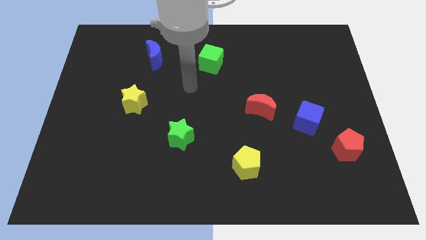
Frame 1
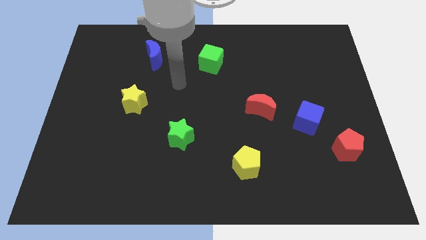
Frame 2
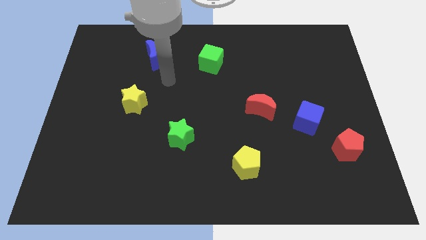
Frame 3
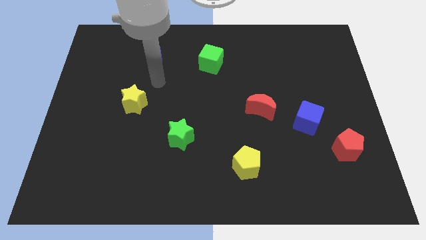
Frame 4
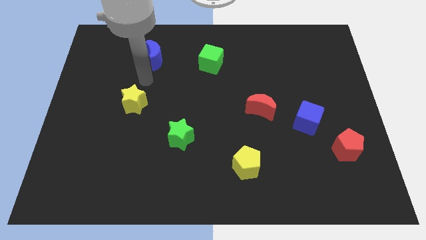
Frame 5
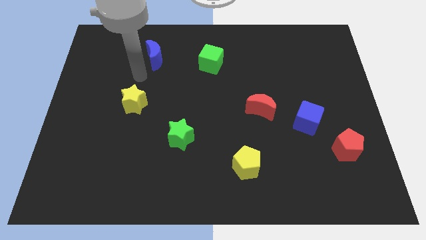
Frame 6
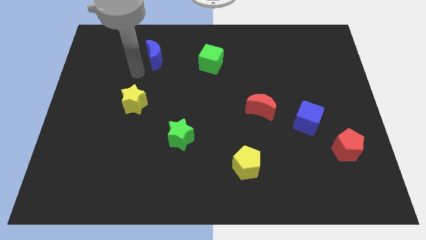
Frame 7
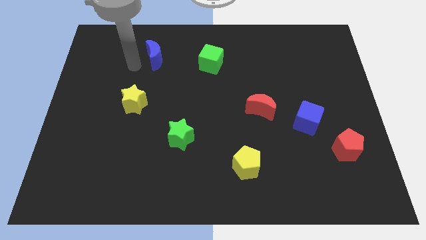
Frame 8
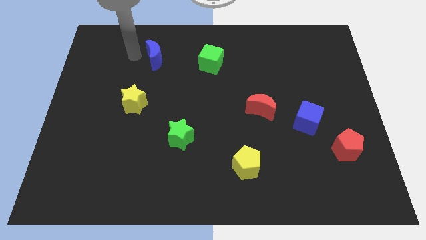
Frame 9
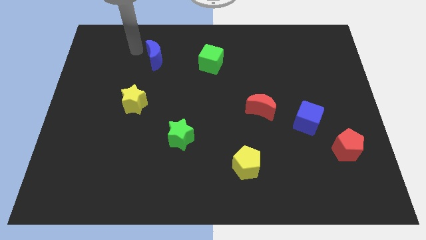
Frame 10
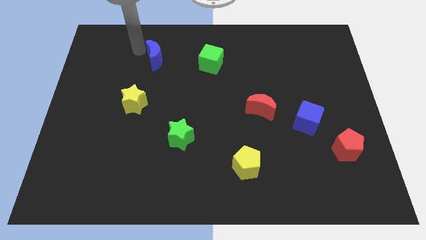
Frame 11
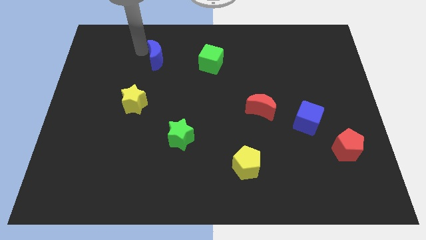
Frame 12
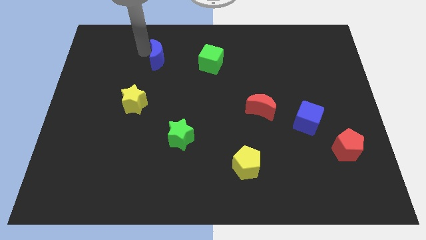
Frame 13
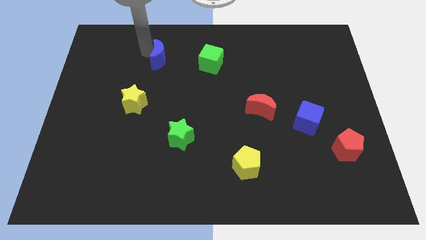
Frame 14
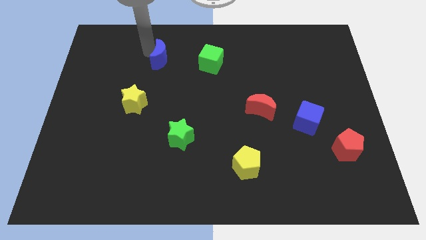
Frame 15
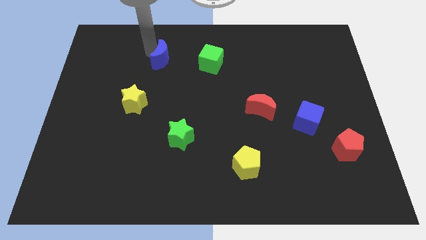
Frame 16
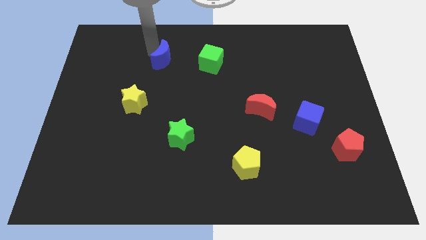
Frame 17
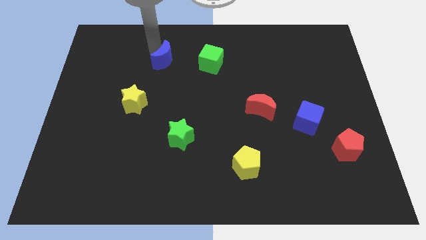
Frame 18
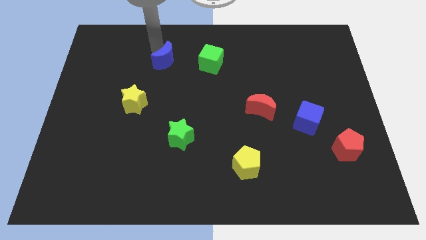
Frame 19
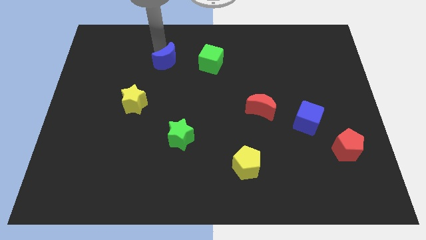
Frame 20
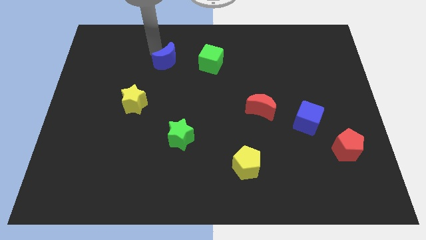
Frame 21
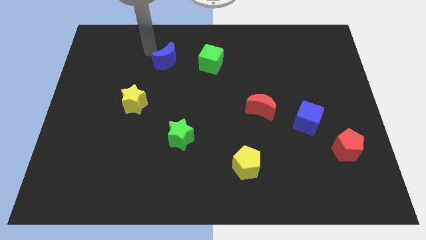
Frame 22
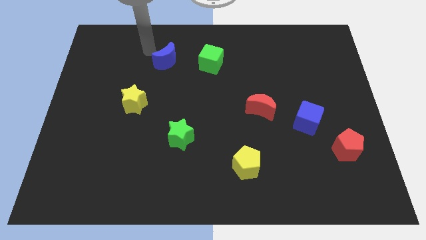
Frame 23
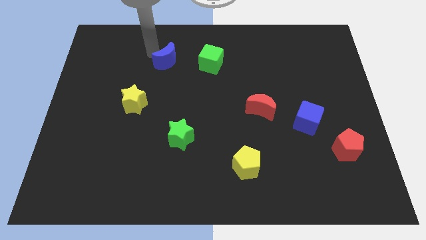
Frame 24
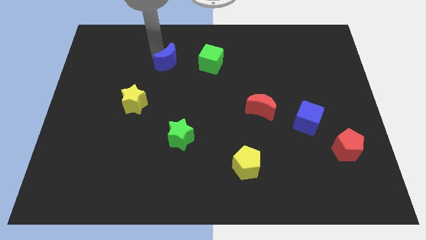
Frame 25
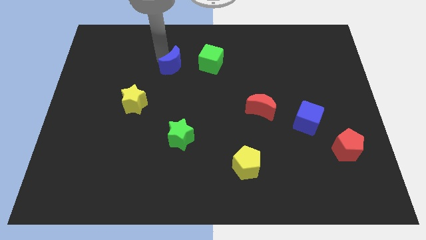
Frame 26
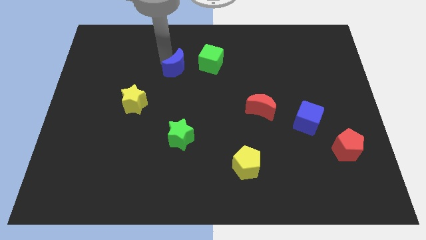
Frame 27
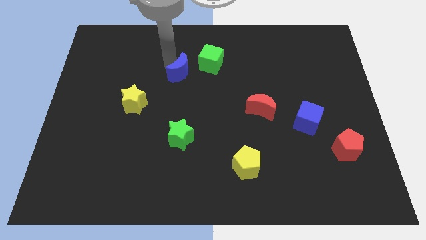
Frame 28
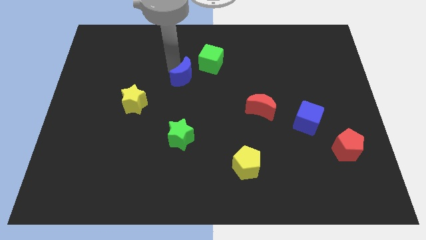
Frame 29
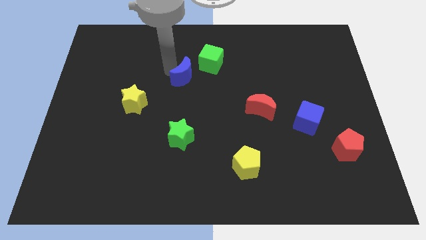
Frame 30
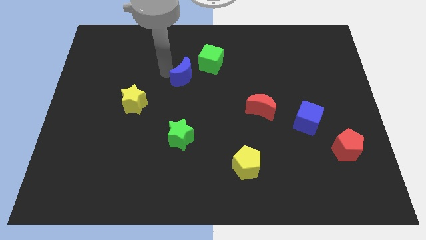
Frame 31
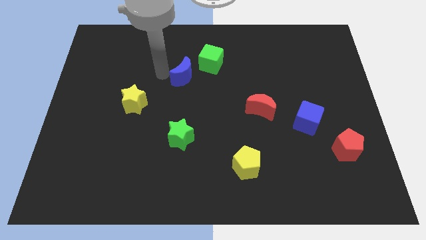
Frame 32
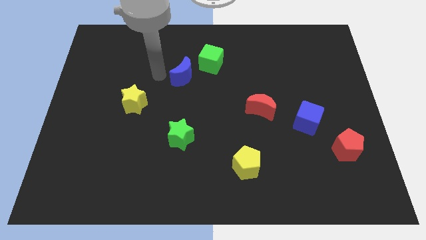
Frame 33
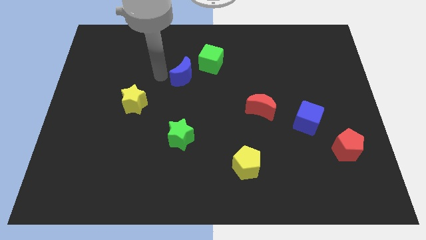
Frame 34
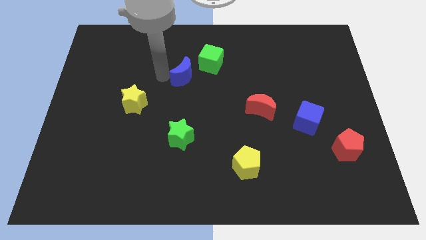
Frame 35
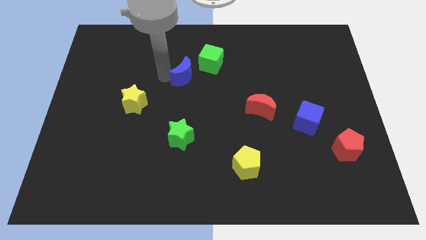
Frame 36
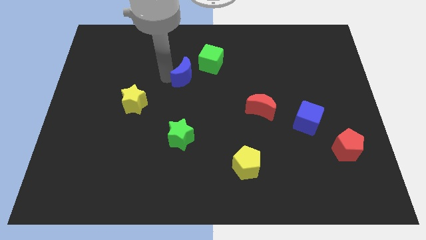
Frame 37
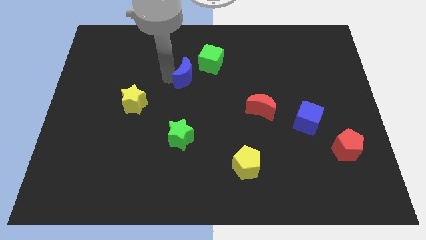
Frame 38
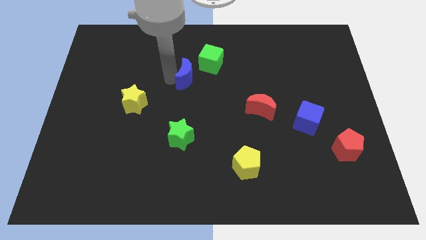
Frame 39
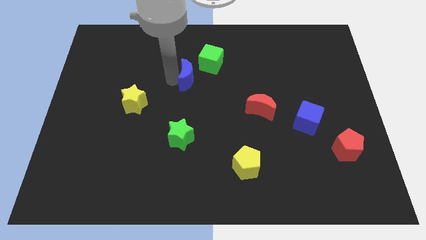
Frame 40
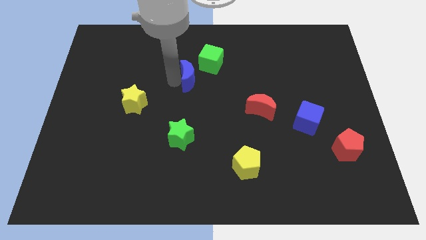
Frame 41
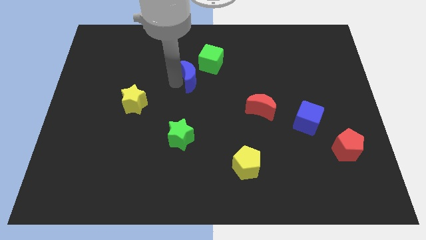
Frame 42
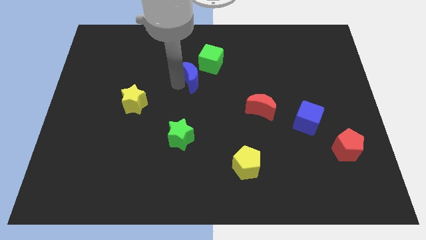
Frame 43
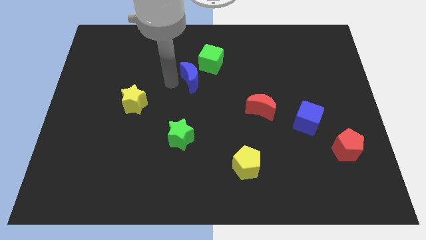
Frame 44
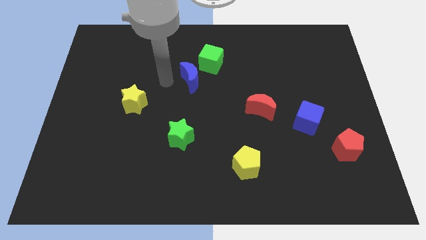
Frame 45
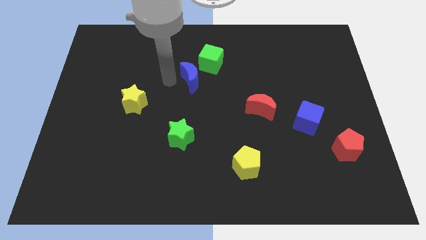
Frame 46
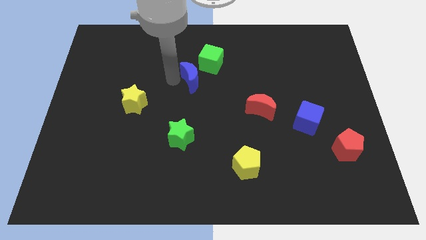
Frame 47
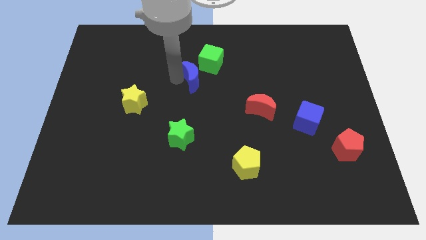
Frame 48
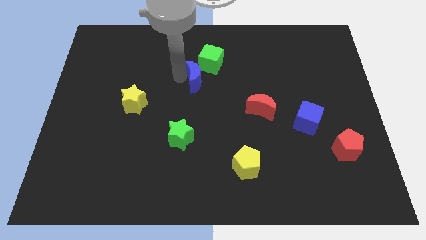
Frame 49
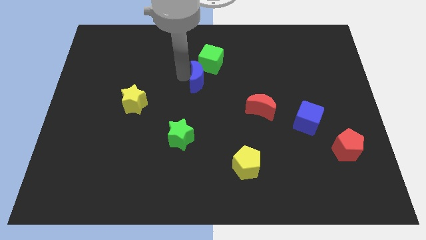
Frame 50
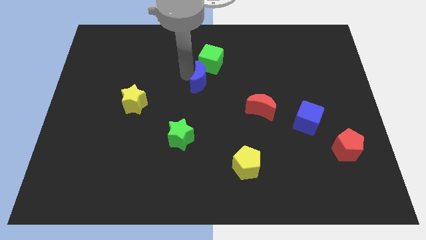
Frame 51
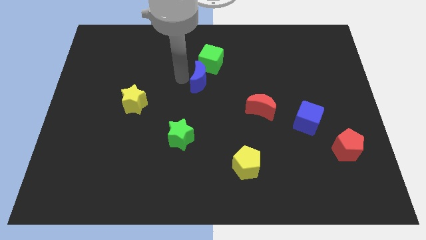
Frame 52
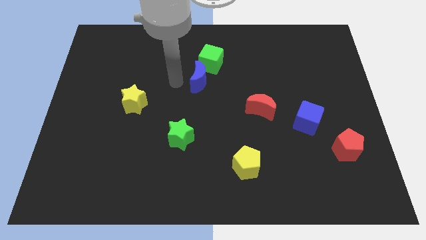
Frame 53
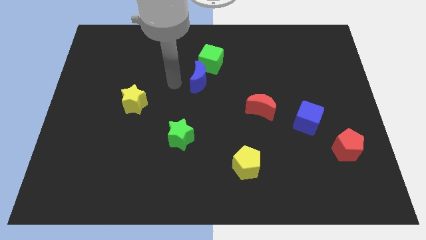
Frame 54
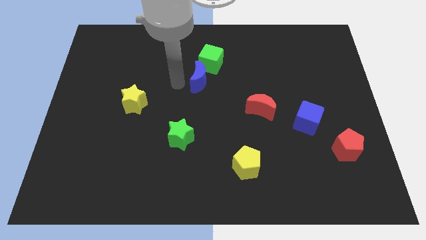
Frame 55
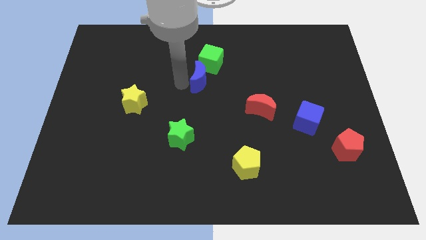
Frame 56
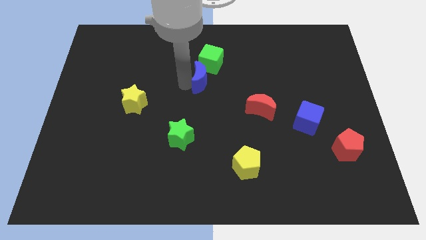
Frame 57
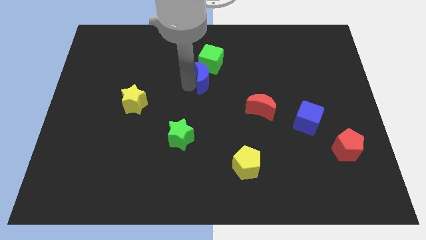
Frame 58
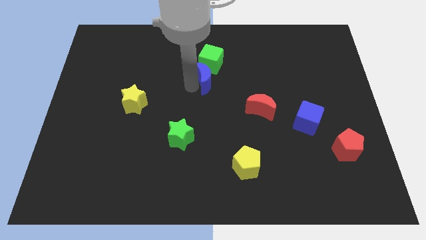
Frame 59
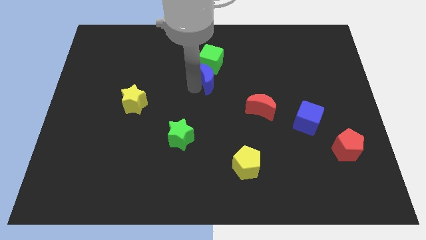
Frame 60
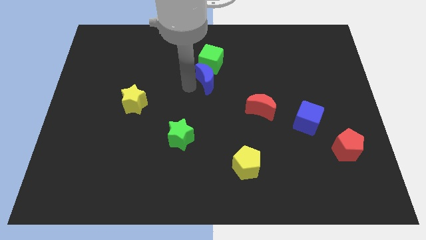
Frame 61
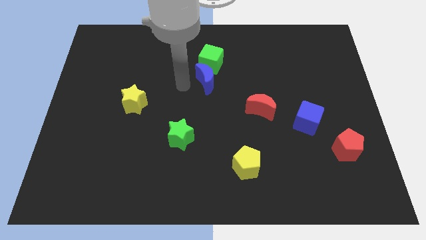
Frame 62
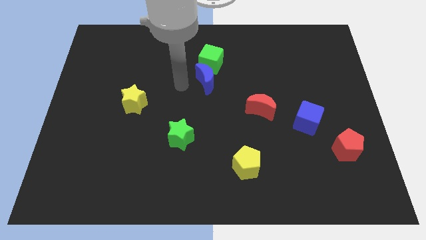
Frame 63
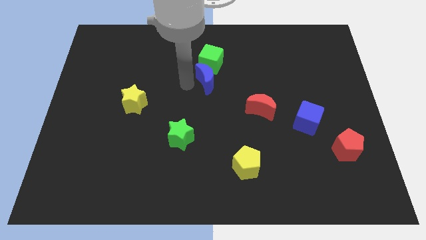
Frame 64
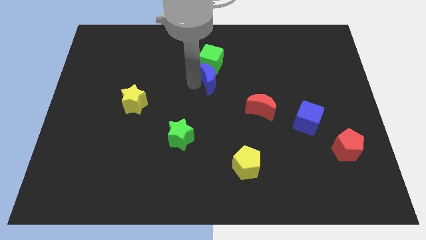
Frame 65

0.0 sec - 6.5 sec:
put the blue moon diagonally down and to the right of the green cube

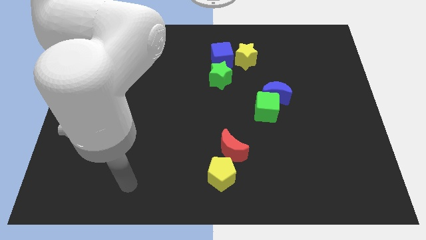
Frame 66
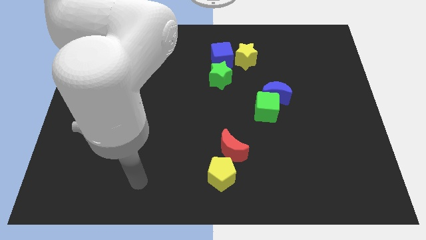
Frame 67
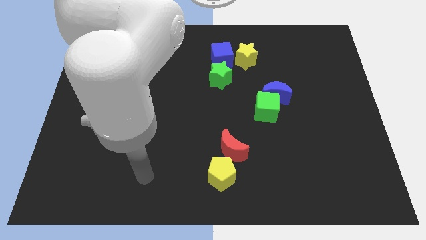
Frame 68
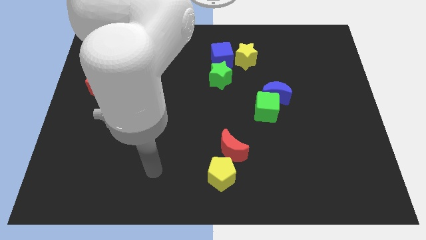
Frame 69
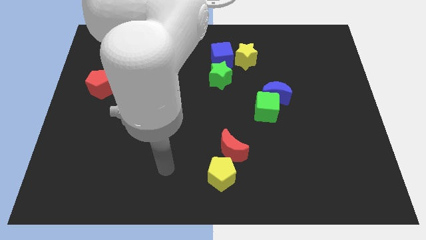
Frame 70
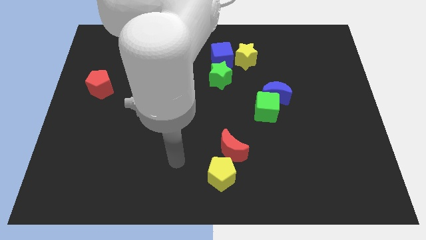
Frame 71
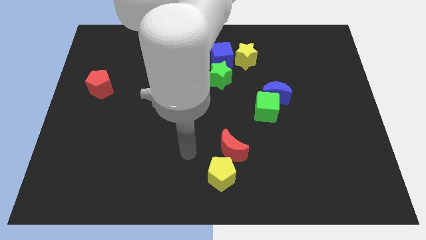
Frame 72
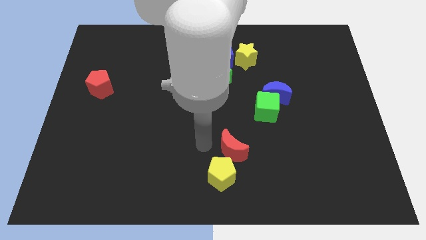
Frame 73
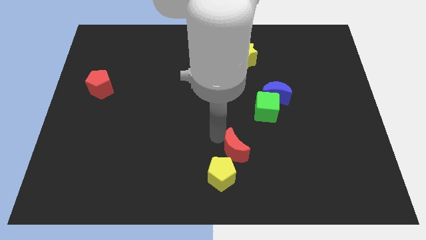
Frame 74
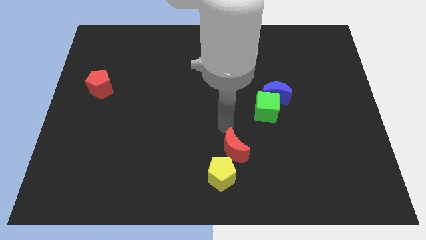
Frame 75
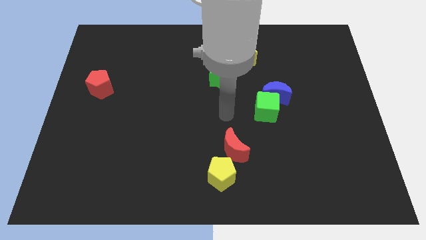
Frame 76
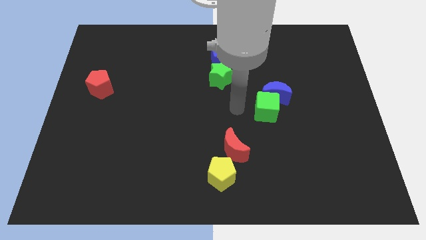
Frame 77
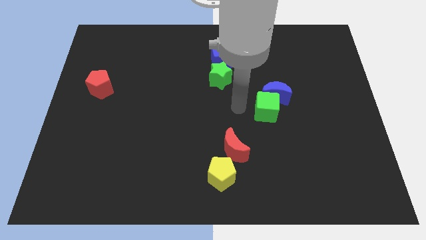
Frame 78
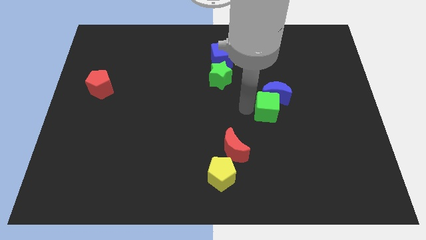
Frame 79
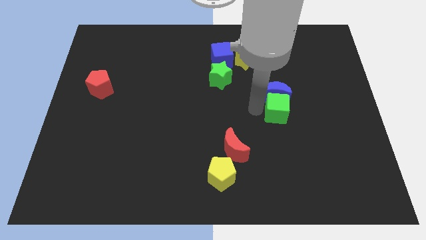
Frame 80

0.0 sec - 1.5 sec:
push the green cube to the bottom right side of the blue moon
